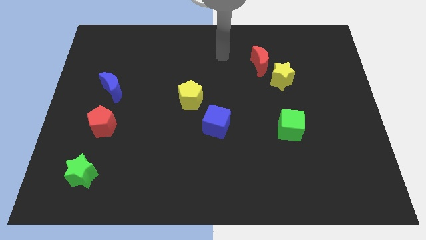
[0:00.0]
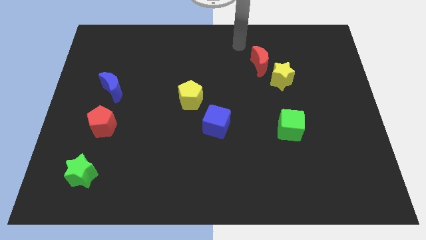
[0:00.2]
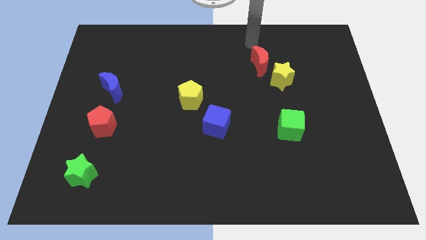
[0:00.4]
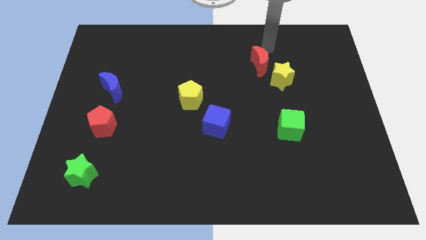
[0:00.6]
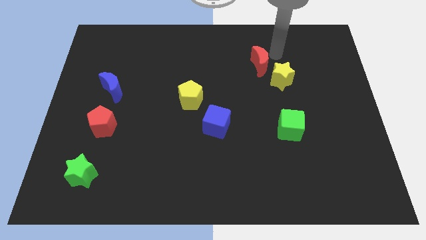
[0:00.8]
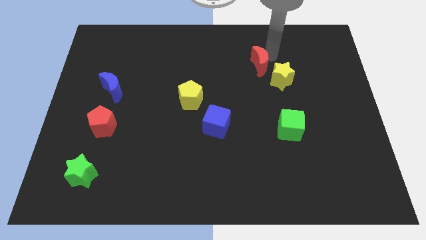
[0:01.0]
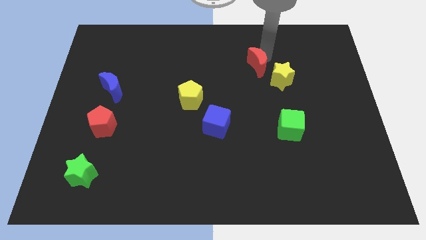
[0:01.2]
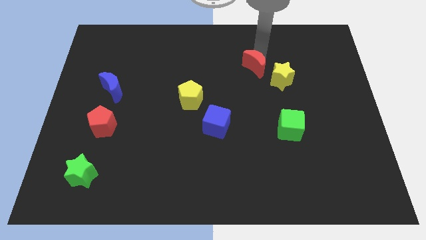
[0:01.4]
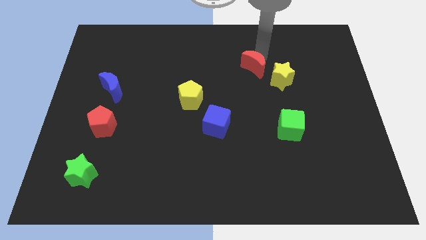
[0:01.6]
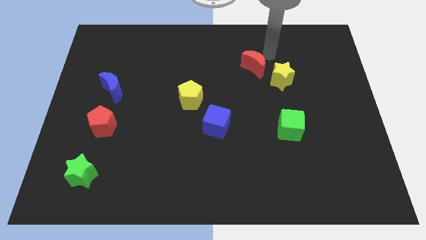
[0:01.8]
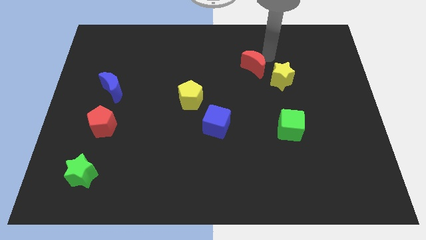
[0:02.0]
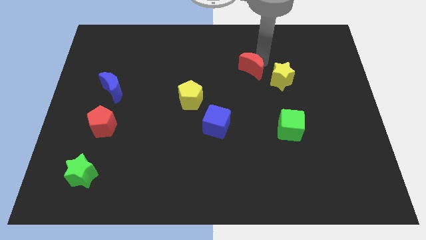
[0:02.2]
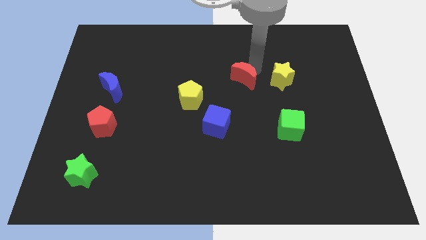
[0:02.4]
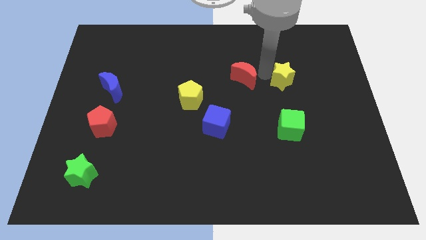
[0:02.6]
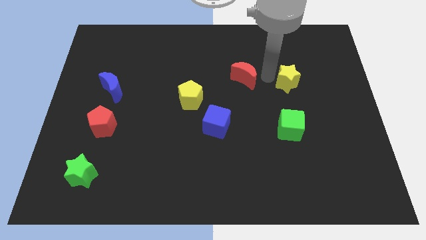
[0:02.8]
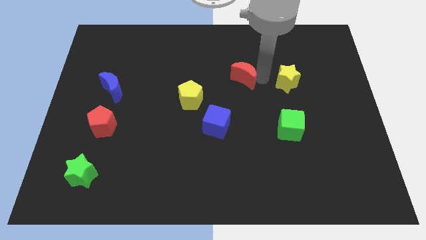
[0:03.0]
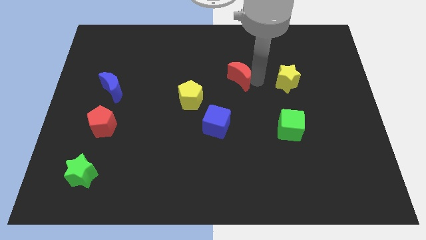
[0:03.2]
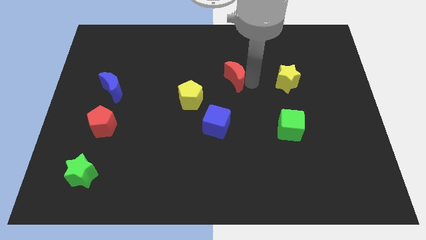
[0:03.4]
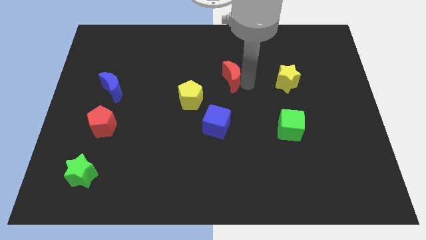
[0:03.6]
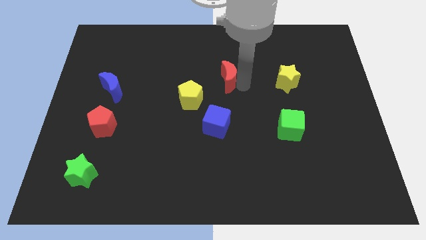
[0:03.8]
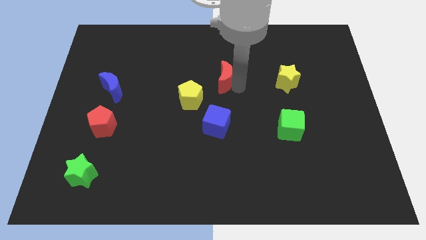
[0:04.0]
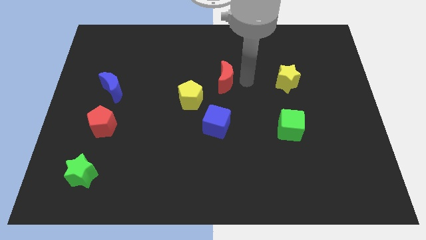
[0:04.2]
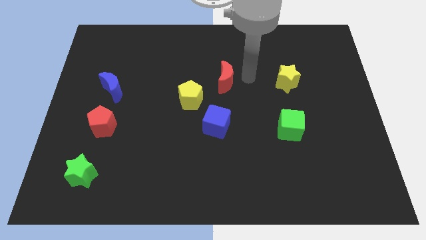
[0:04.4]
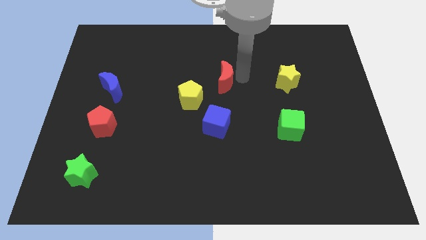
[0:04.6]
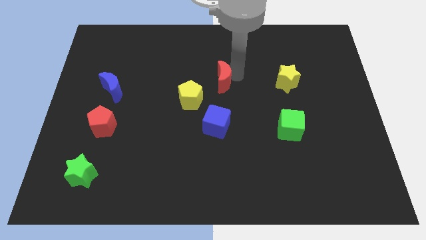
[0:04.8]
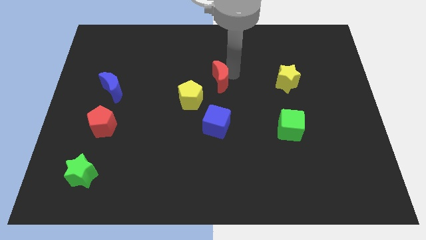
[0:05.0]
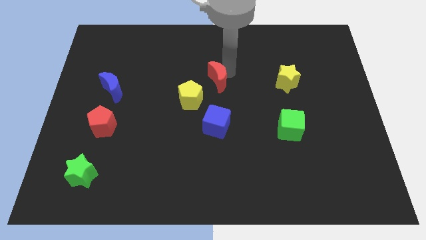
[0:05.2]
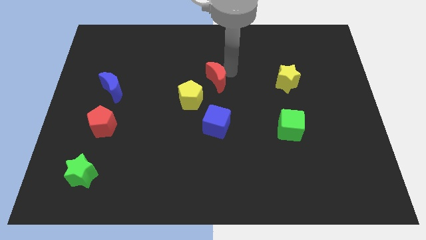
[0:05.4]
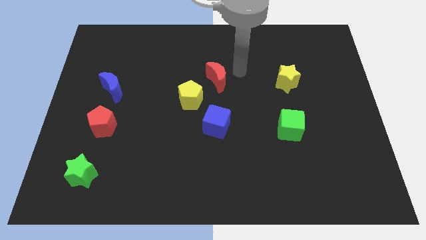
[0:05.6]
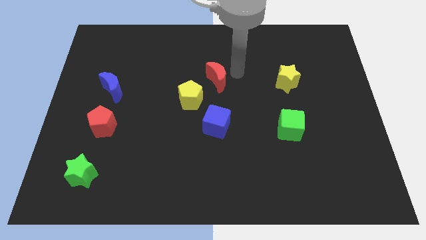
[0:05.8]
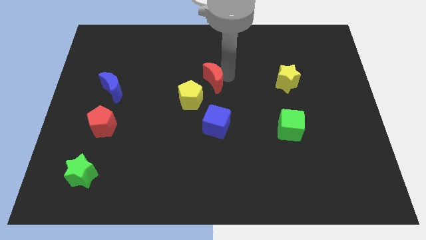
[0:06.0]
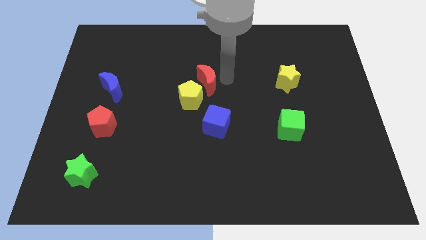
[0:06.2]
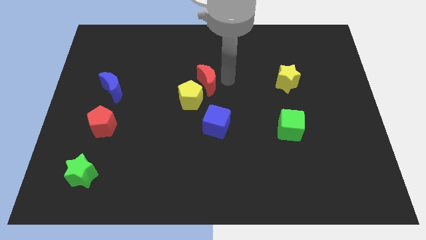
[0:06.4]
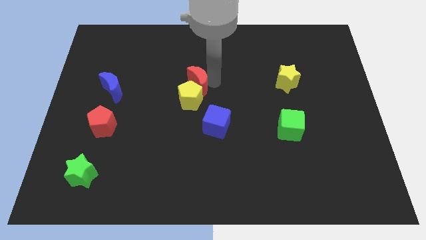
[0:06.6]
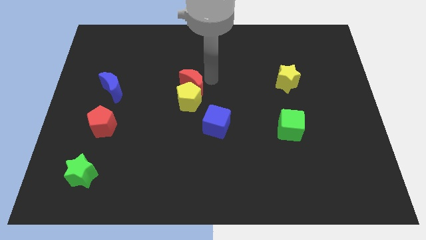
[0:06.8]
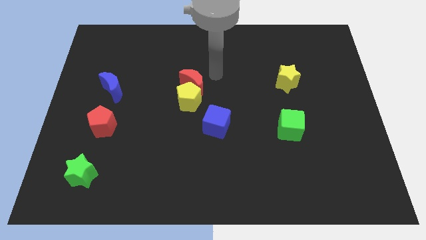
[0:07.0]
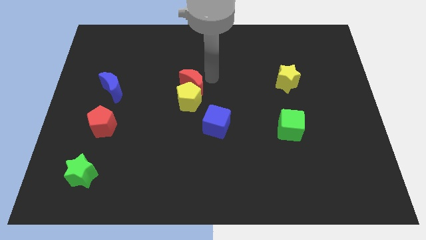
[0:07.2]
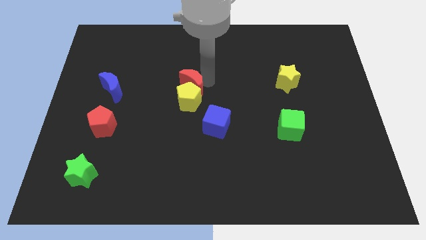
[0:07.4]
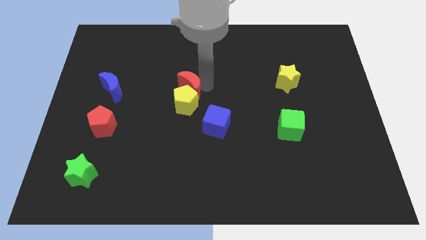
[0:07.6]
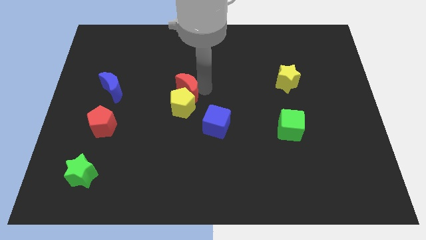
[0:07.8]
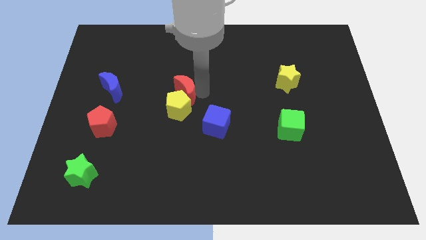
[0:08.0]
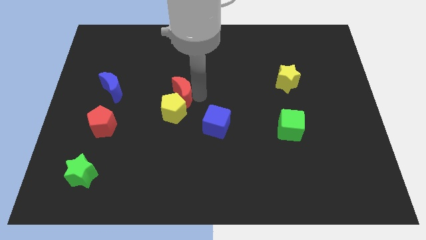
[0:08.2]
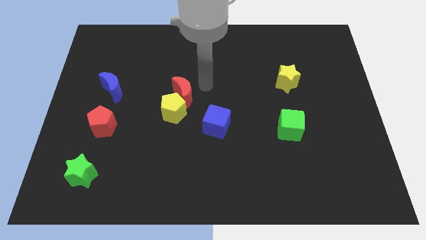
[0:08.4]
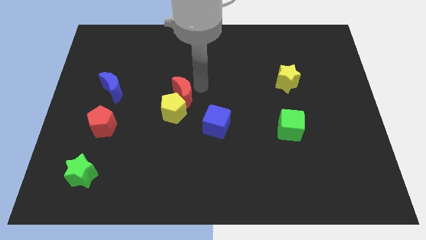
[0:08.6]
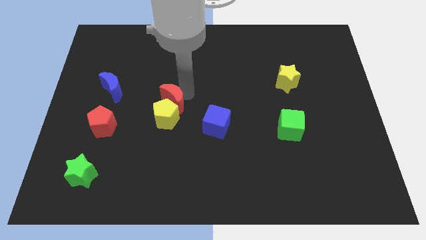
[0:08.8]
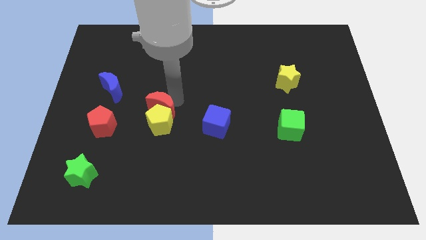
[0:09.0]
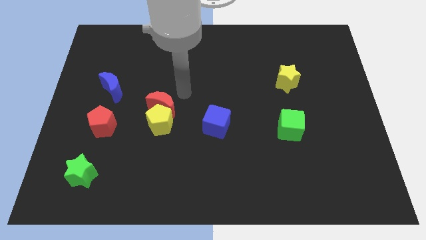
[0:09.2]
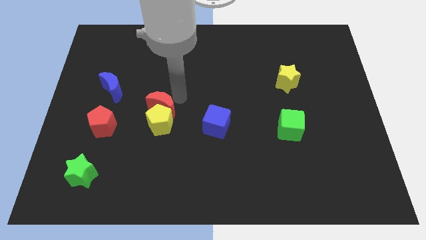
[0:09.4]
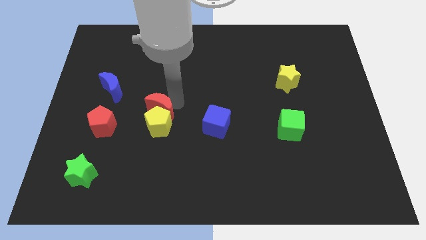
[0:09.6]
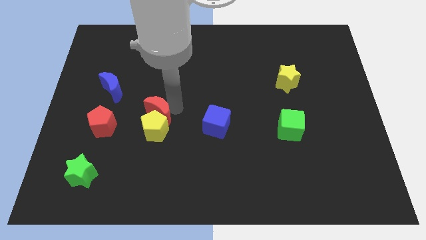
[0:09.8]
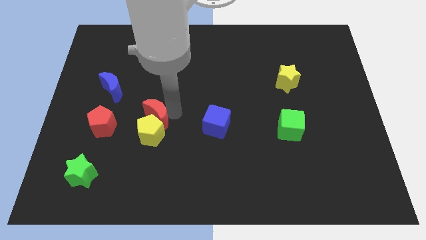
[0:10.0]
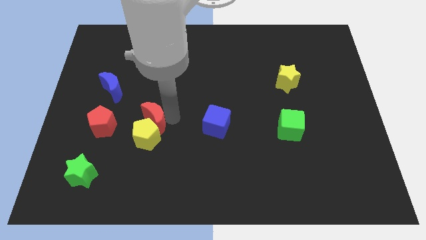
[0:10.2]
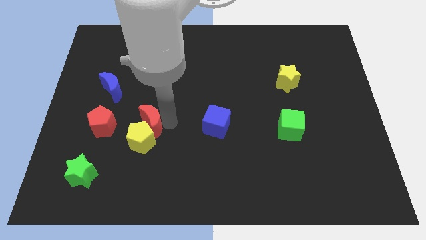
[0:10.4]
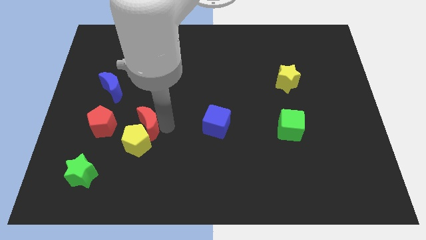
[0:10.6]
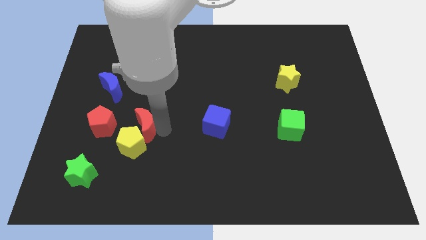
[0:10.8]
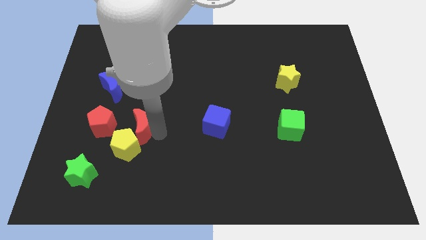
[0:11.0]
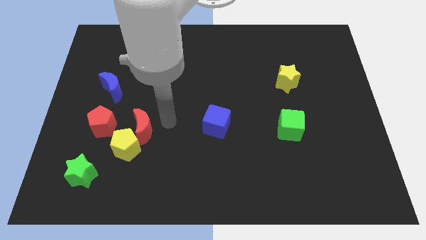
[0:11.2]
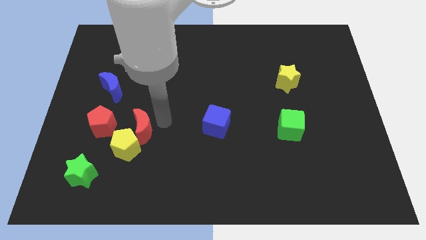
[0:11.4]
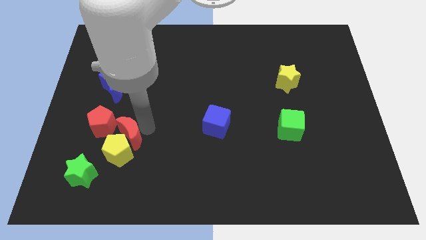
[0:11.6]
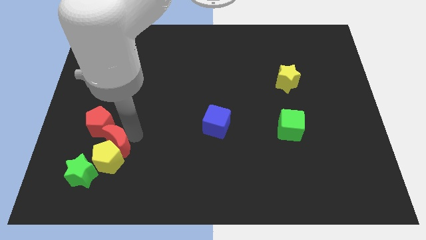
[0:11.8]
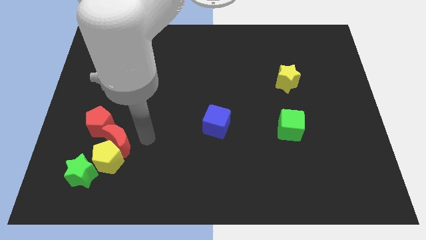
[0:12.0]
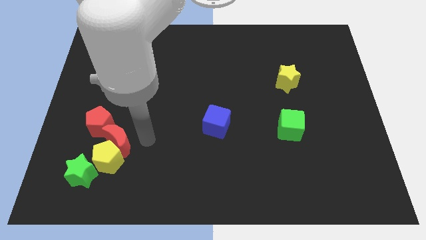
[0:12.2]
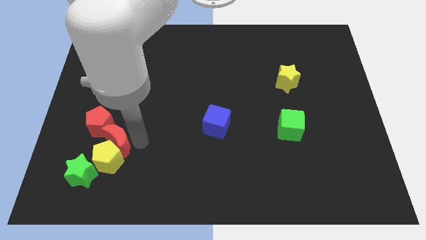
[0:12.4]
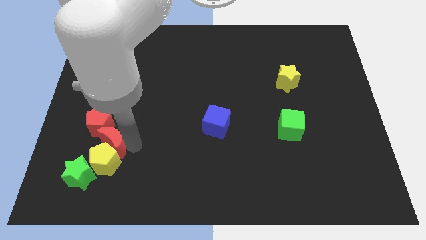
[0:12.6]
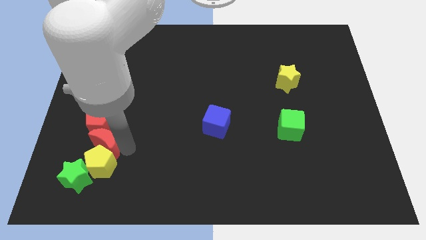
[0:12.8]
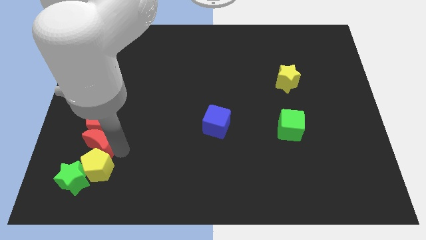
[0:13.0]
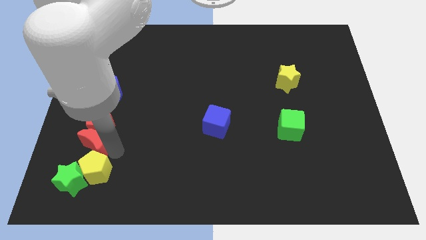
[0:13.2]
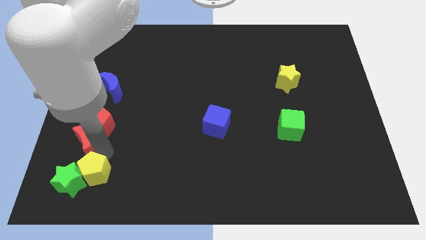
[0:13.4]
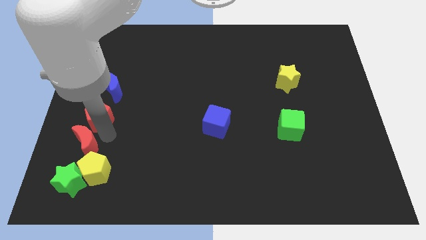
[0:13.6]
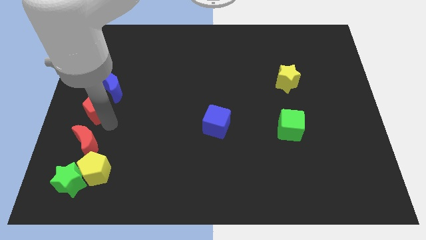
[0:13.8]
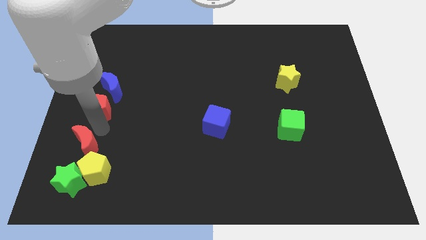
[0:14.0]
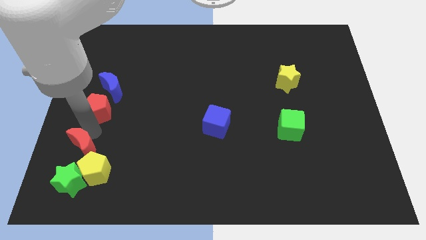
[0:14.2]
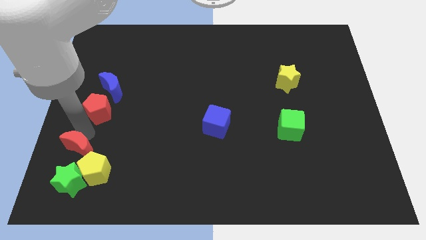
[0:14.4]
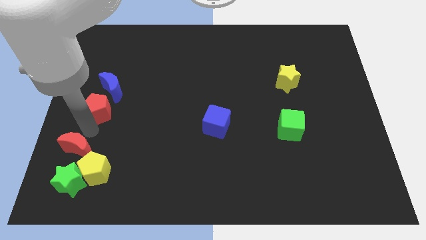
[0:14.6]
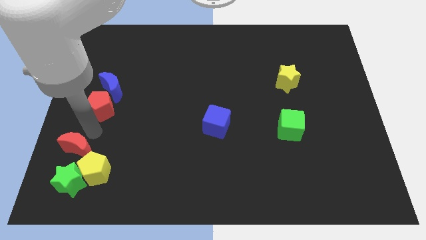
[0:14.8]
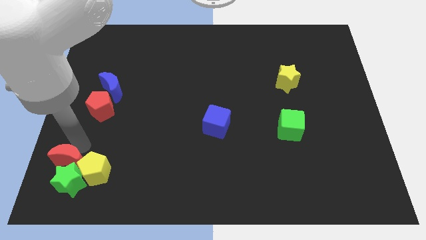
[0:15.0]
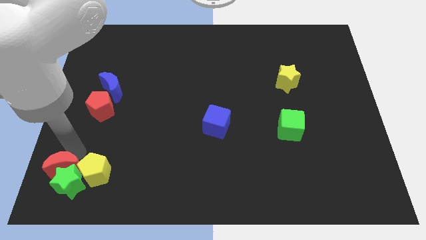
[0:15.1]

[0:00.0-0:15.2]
move the red moon to the bottom left
